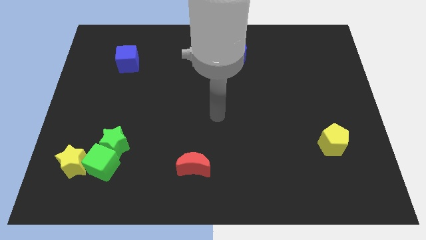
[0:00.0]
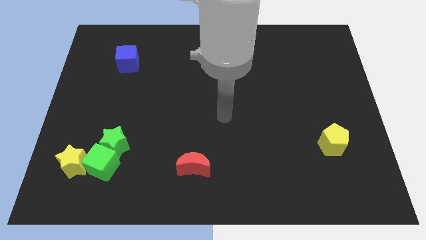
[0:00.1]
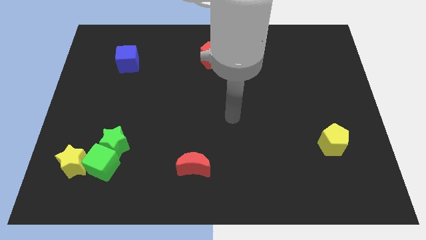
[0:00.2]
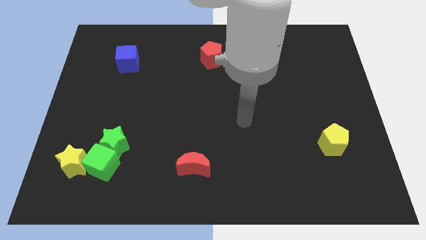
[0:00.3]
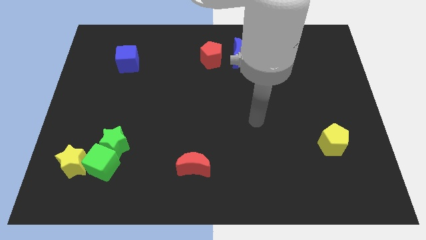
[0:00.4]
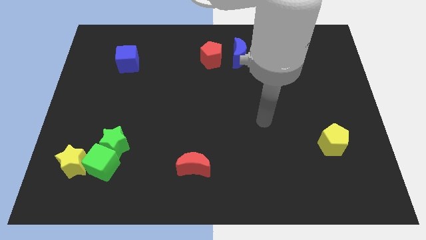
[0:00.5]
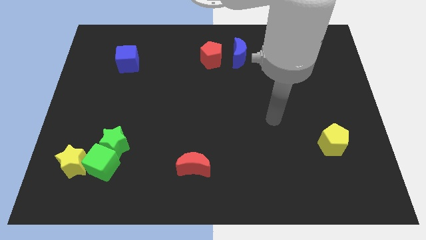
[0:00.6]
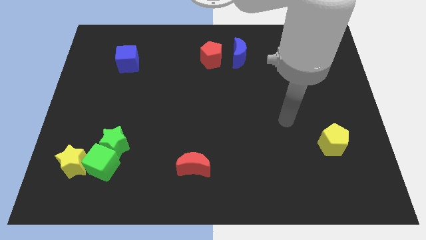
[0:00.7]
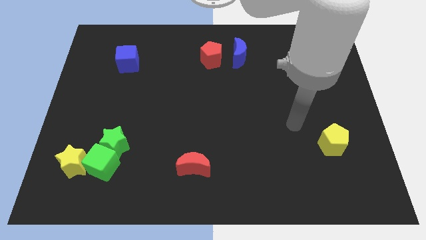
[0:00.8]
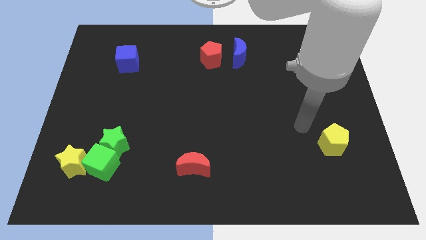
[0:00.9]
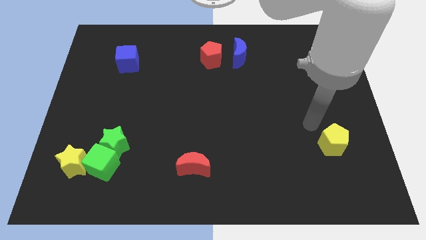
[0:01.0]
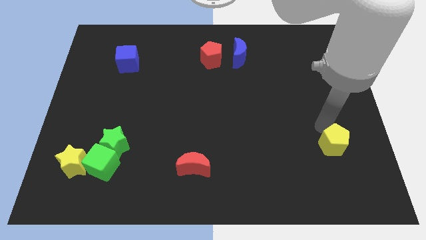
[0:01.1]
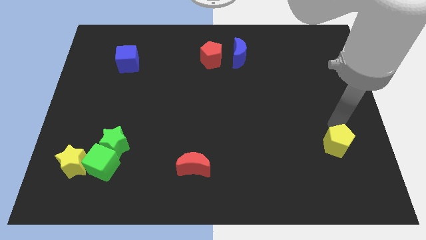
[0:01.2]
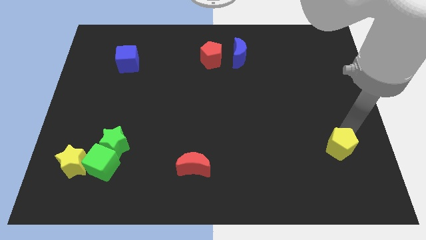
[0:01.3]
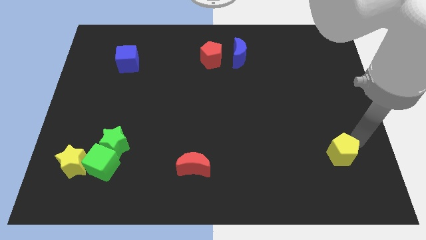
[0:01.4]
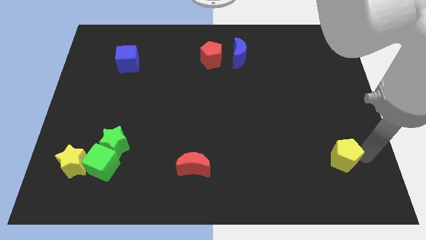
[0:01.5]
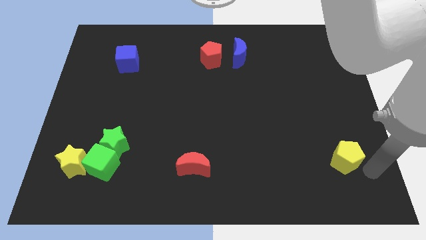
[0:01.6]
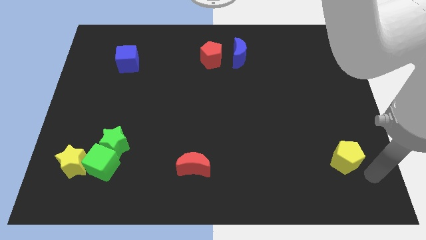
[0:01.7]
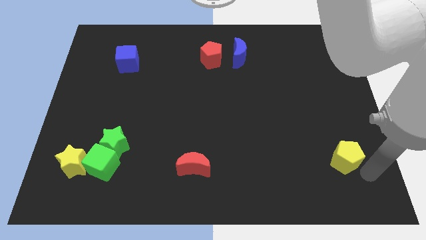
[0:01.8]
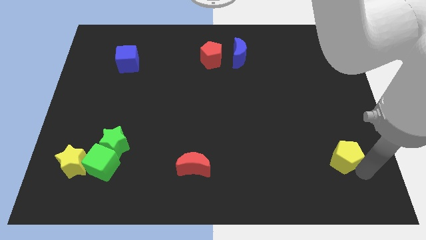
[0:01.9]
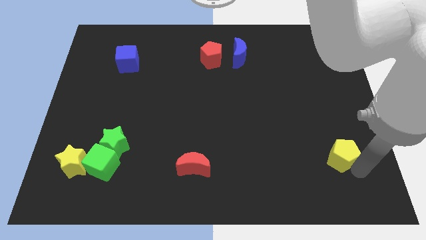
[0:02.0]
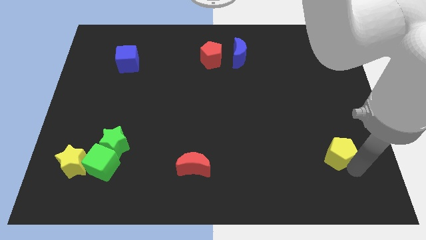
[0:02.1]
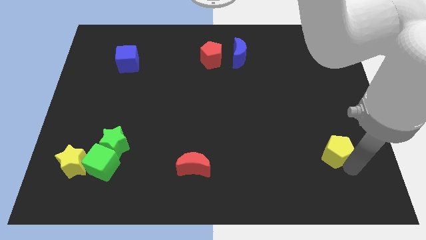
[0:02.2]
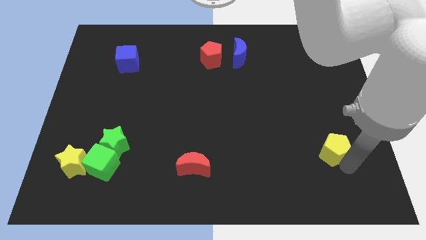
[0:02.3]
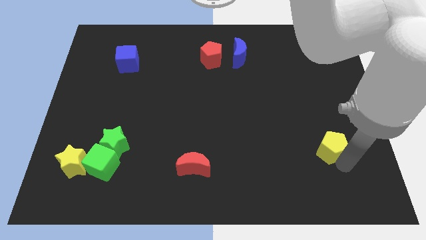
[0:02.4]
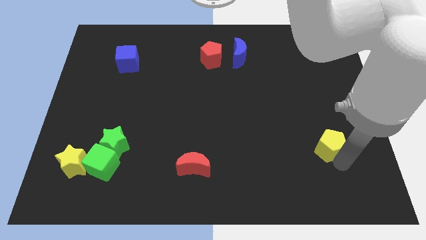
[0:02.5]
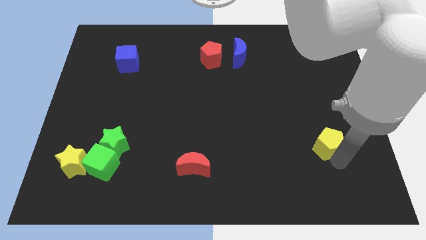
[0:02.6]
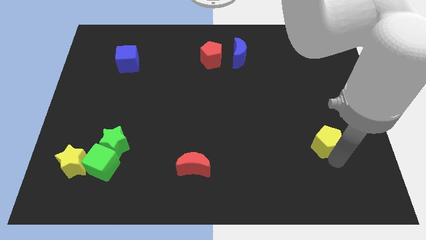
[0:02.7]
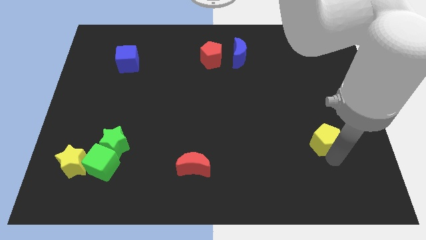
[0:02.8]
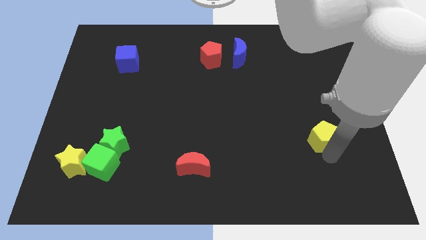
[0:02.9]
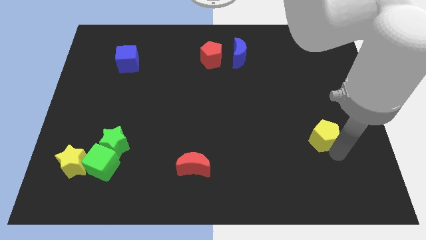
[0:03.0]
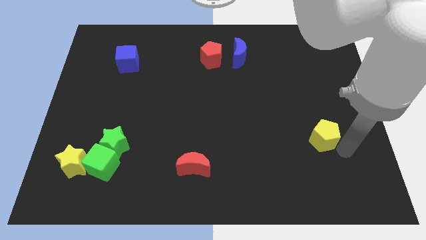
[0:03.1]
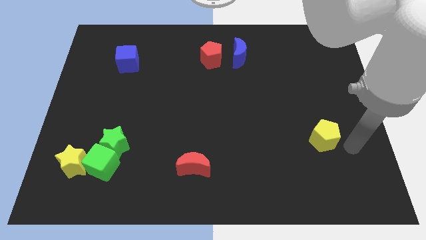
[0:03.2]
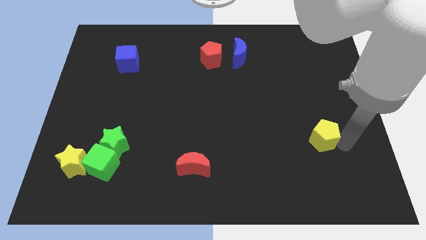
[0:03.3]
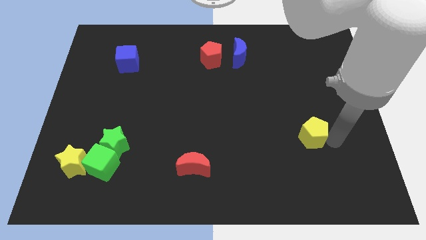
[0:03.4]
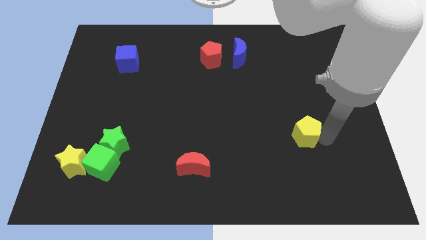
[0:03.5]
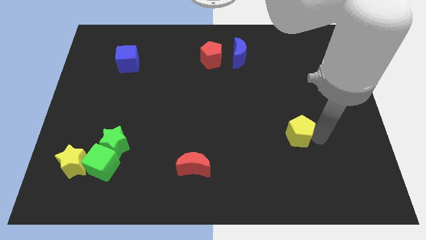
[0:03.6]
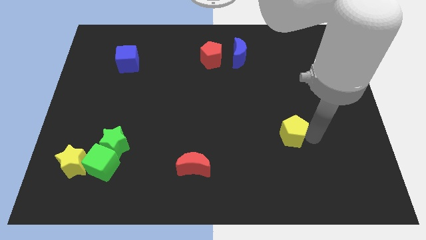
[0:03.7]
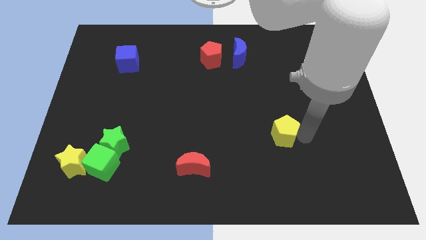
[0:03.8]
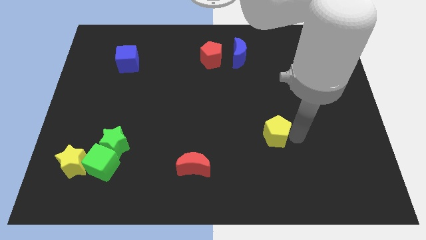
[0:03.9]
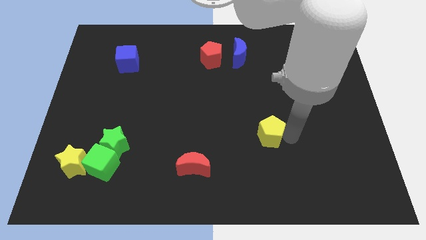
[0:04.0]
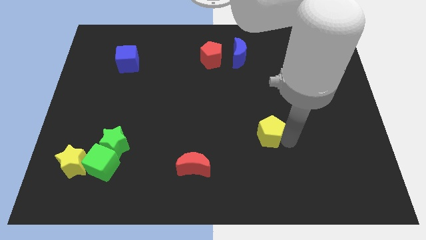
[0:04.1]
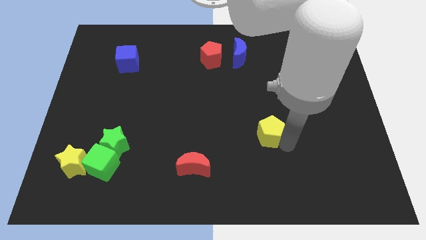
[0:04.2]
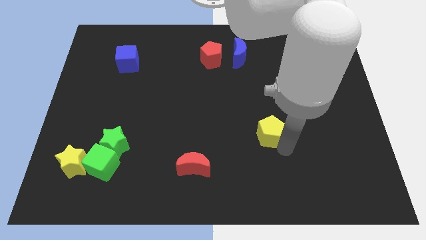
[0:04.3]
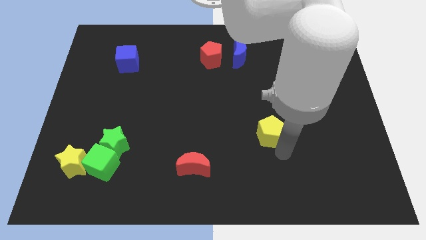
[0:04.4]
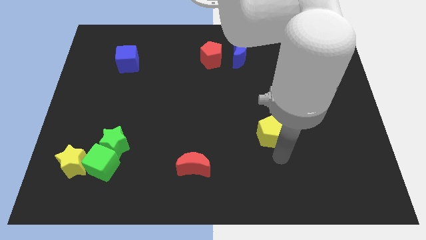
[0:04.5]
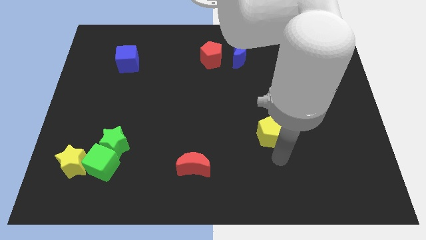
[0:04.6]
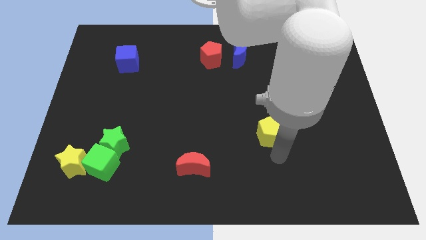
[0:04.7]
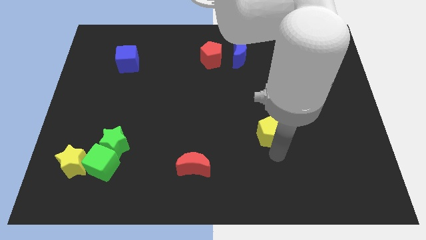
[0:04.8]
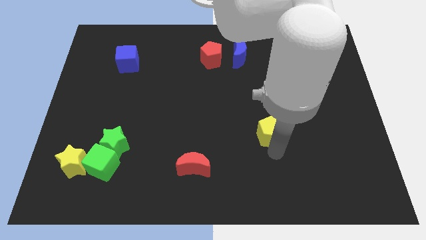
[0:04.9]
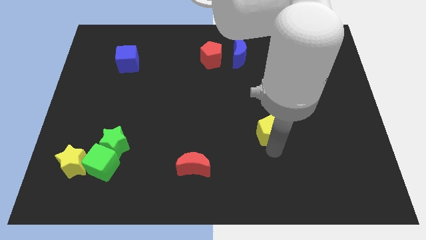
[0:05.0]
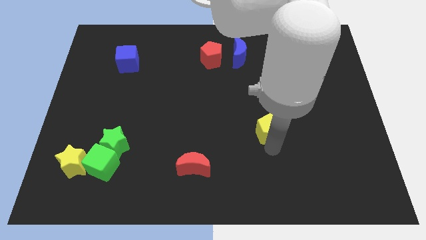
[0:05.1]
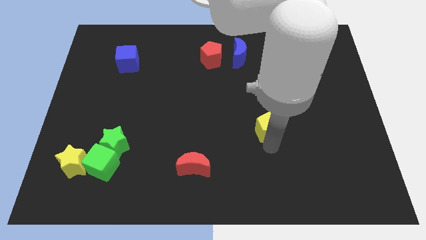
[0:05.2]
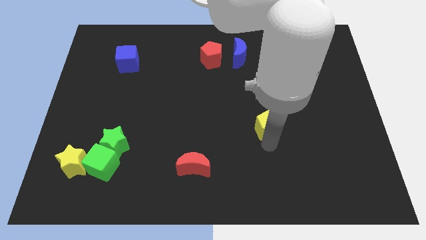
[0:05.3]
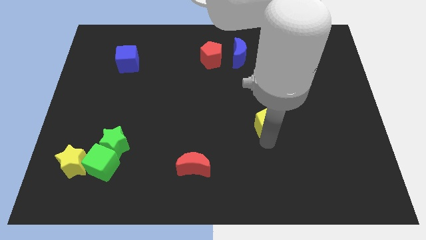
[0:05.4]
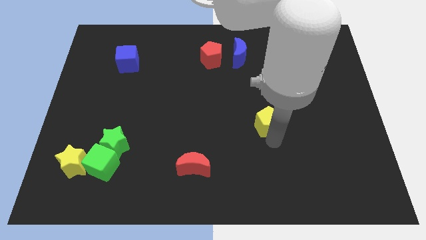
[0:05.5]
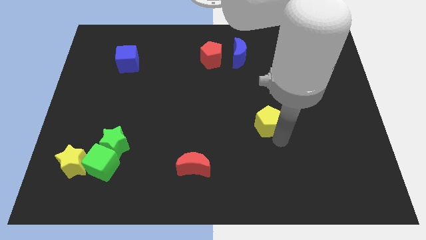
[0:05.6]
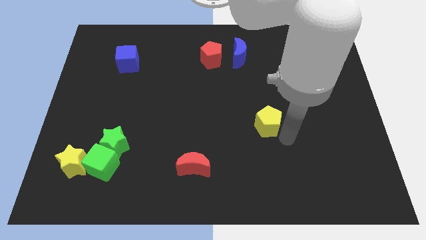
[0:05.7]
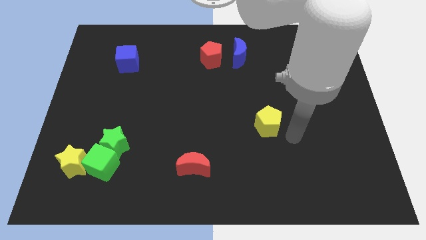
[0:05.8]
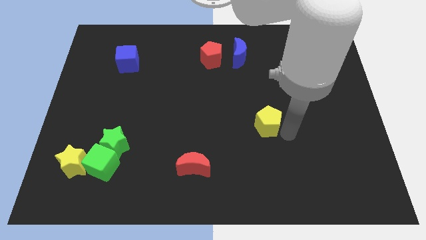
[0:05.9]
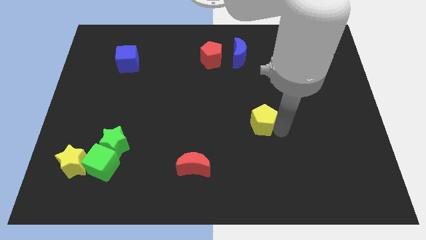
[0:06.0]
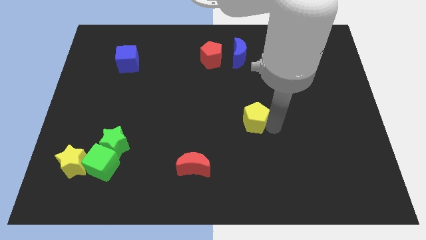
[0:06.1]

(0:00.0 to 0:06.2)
put the yellow pentagon to the middle
